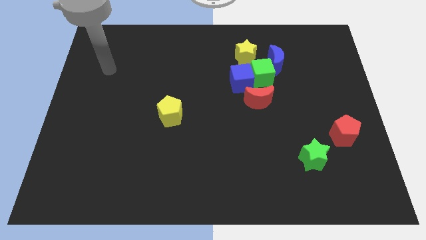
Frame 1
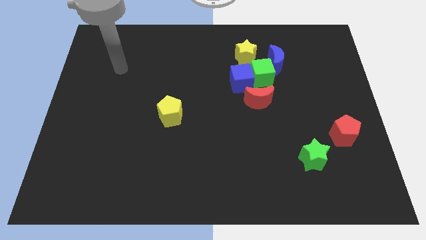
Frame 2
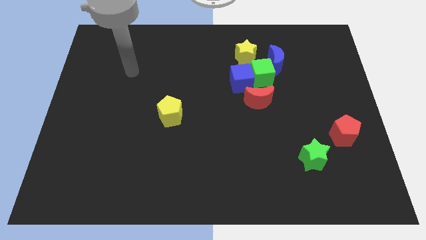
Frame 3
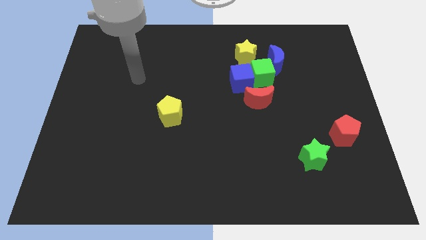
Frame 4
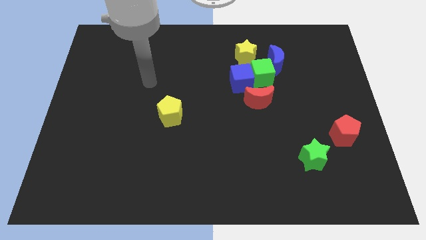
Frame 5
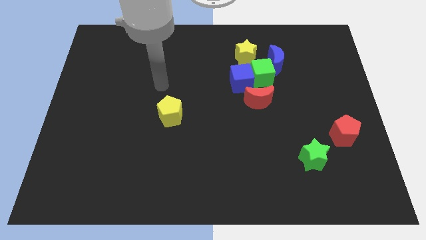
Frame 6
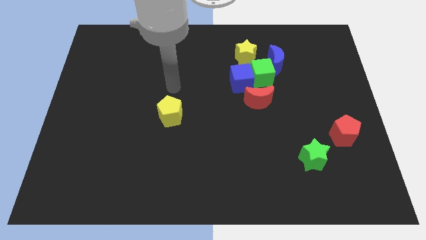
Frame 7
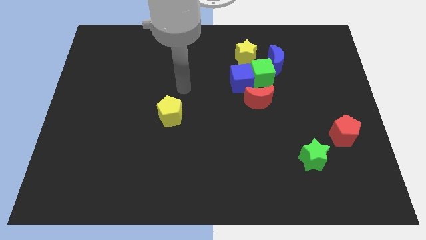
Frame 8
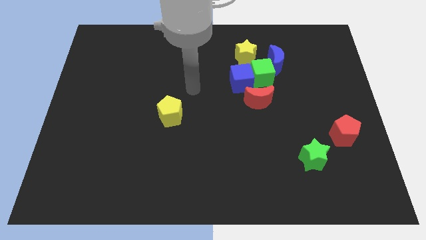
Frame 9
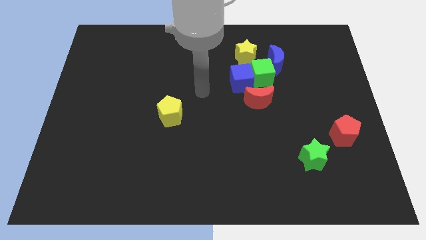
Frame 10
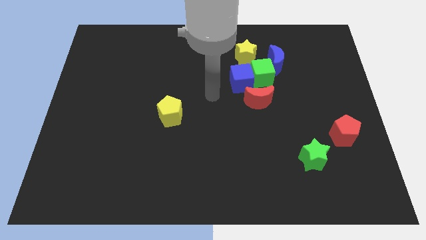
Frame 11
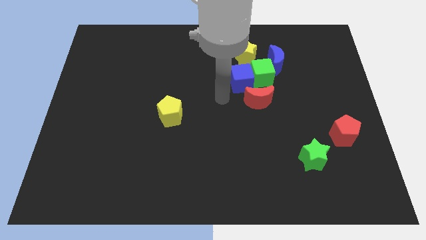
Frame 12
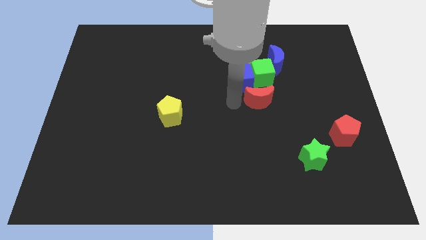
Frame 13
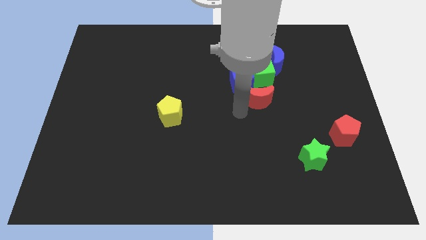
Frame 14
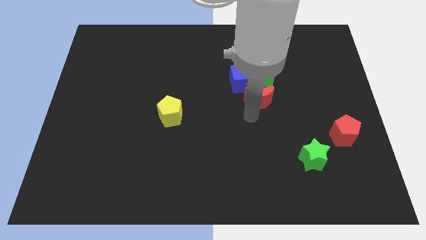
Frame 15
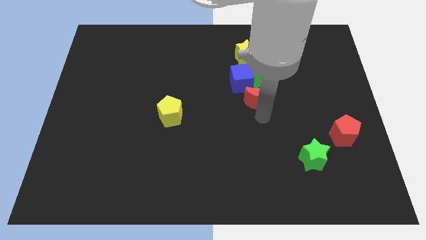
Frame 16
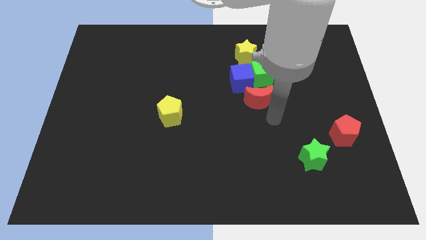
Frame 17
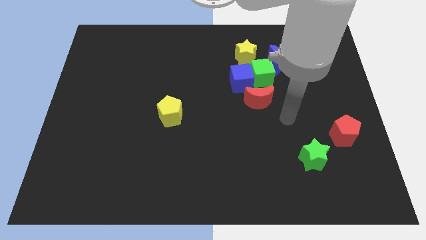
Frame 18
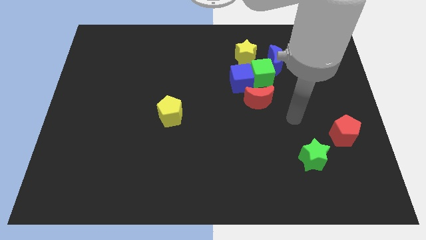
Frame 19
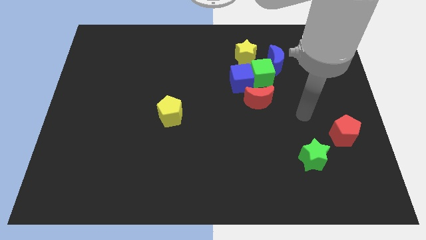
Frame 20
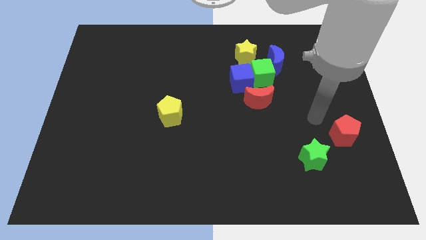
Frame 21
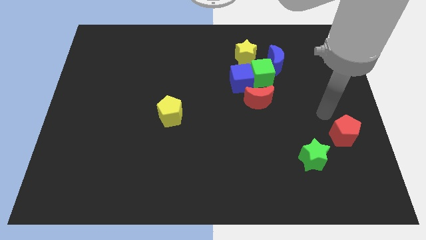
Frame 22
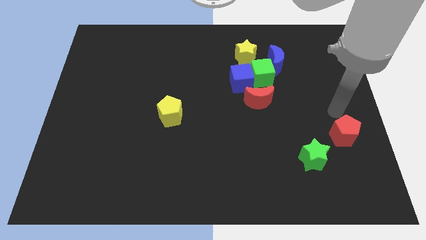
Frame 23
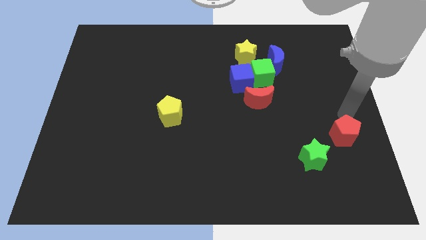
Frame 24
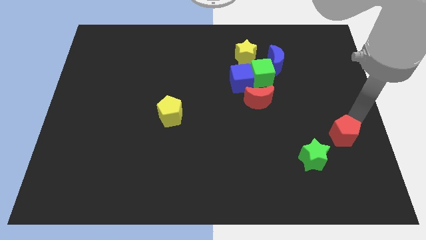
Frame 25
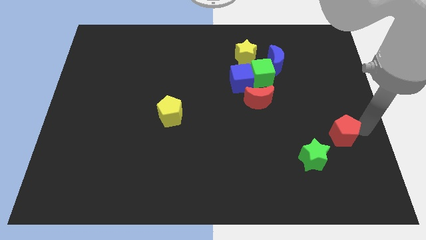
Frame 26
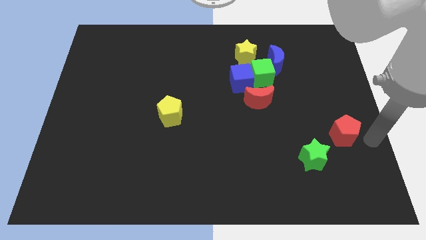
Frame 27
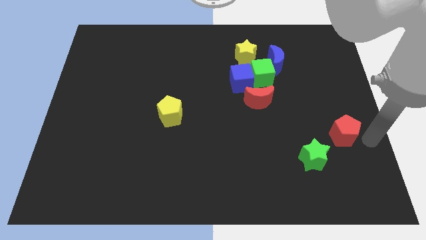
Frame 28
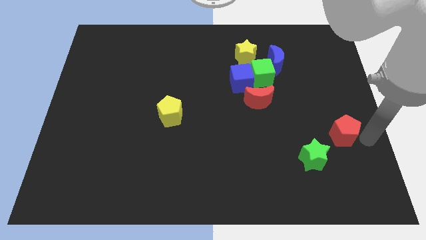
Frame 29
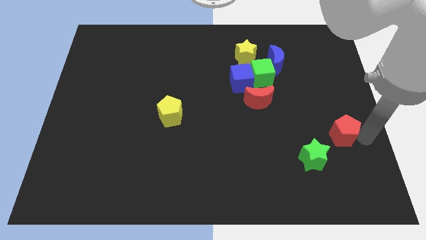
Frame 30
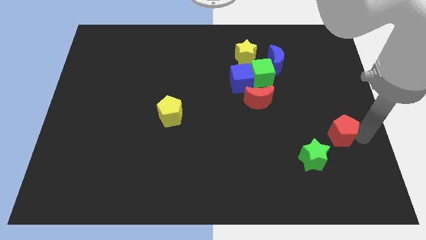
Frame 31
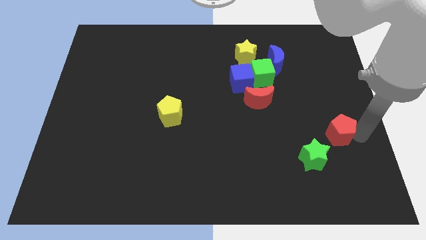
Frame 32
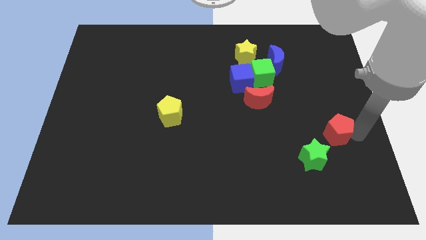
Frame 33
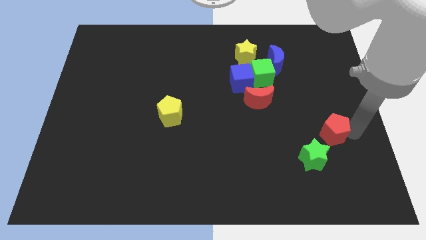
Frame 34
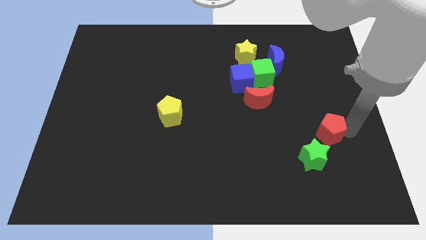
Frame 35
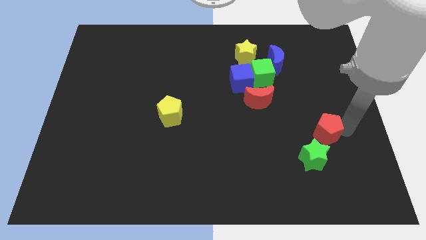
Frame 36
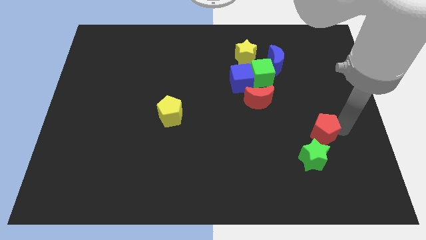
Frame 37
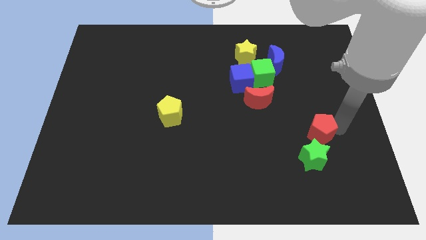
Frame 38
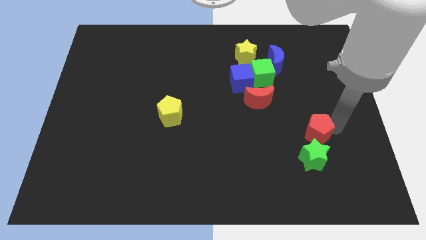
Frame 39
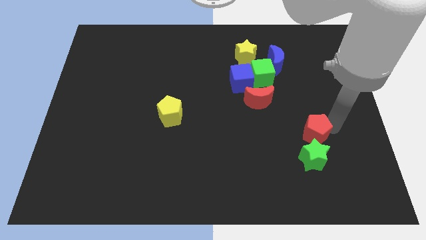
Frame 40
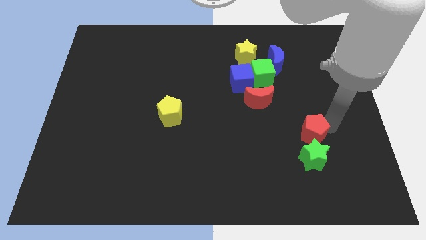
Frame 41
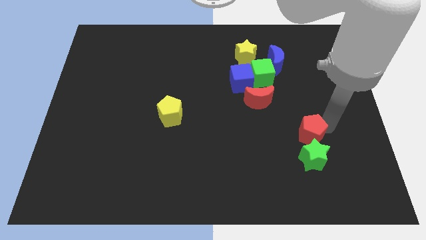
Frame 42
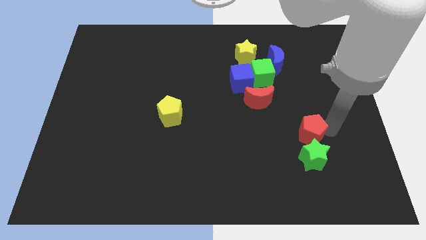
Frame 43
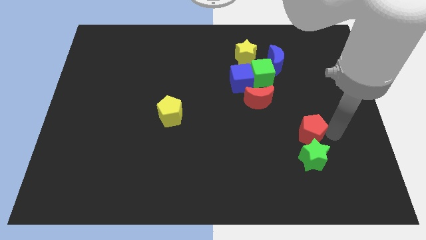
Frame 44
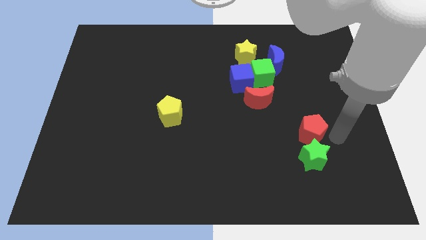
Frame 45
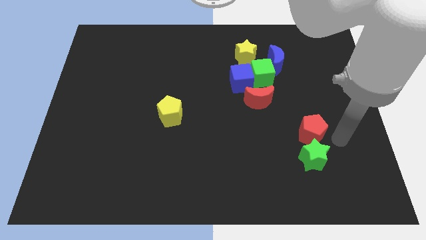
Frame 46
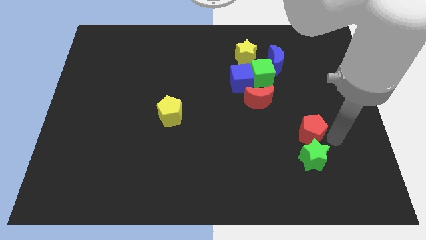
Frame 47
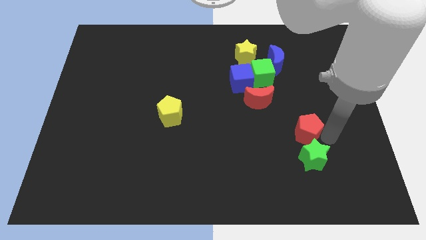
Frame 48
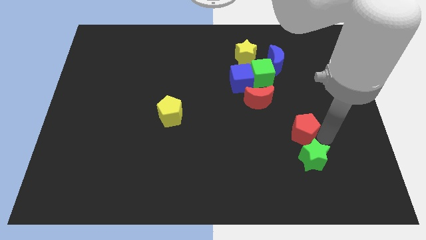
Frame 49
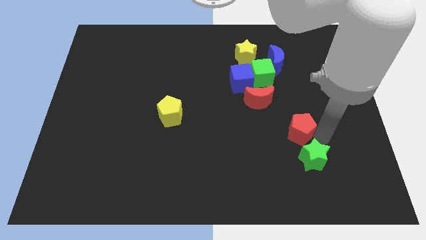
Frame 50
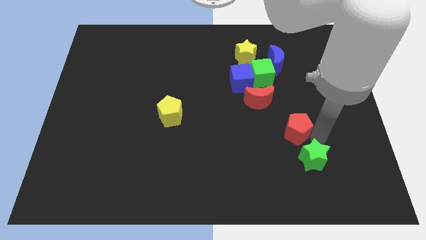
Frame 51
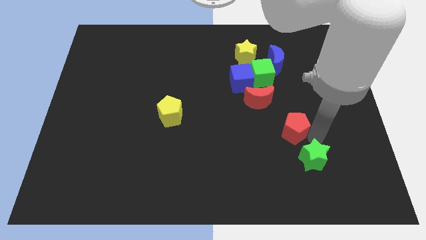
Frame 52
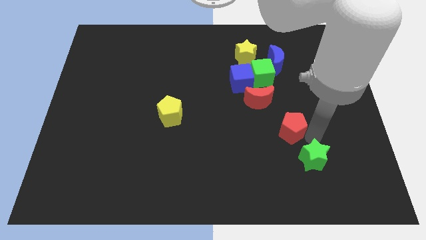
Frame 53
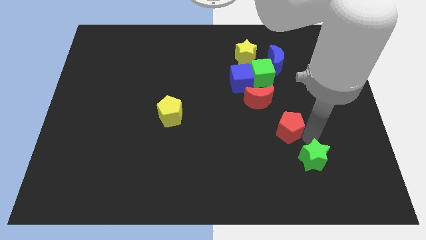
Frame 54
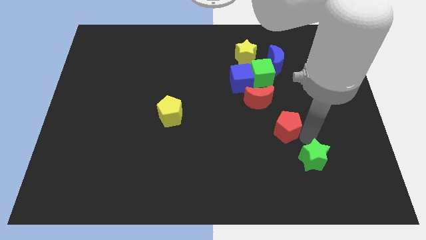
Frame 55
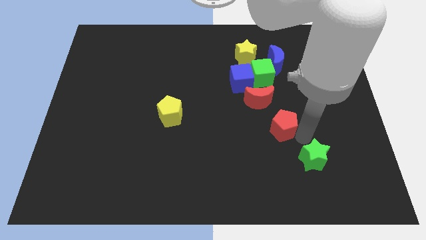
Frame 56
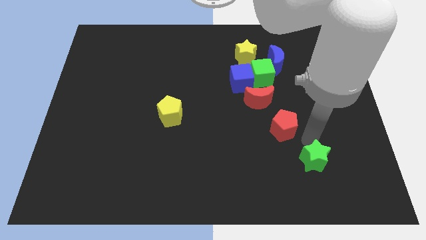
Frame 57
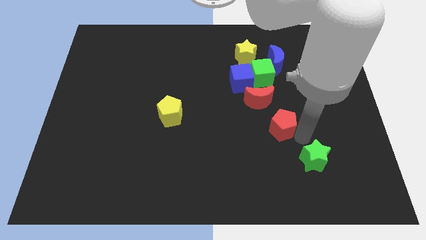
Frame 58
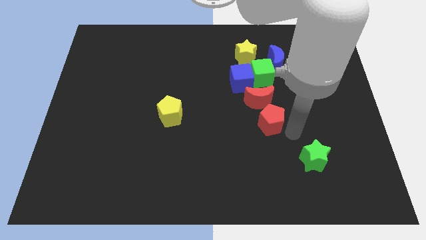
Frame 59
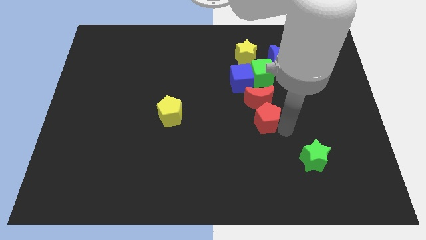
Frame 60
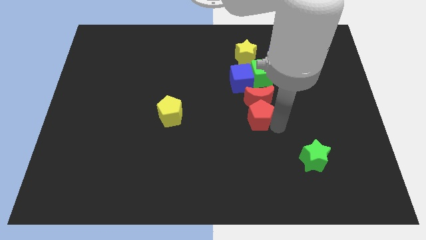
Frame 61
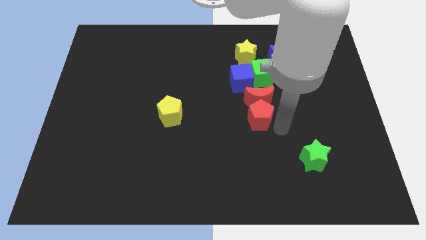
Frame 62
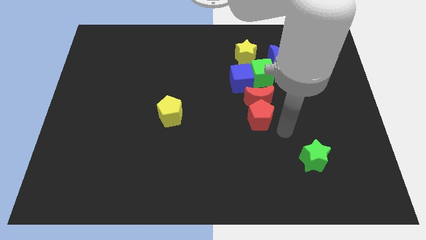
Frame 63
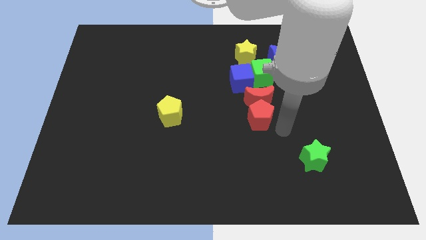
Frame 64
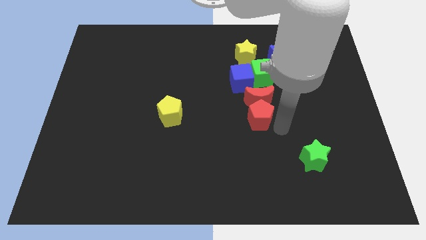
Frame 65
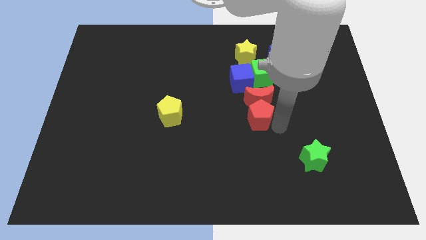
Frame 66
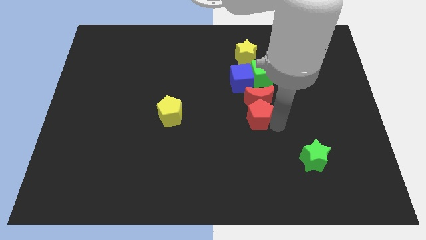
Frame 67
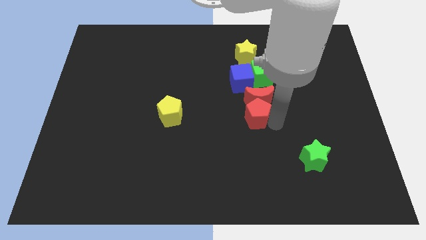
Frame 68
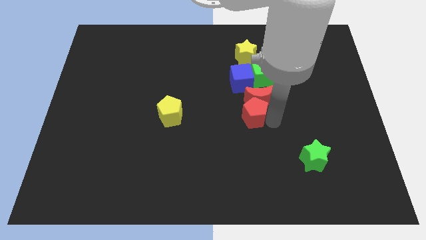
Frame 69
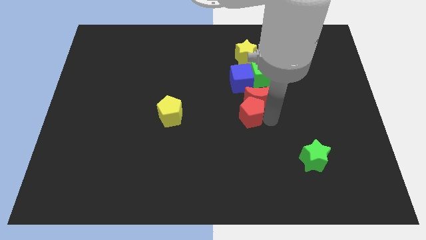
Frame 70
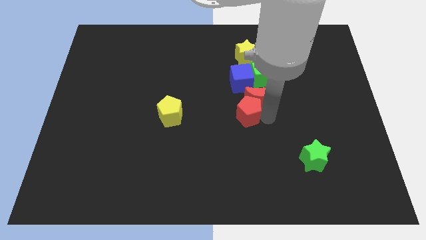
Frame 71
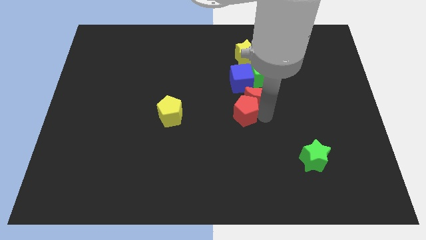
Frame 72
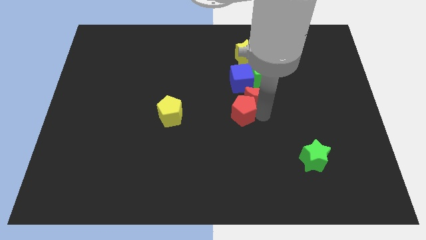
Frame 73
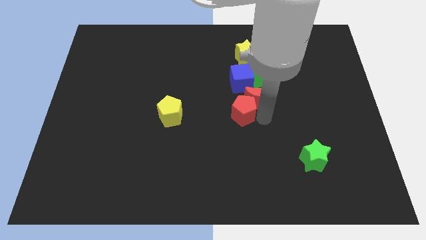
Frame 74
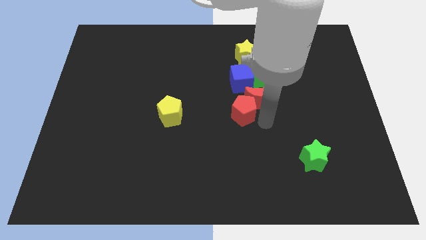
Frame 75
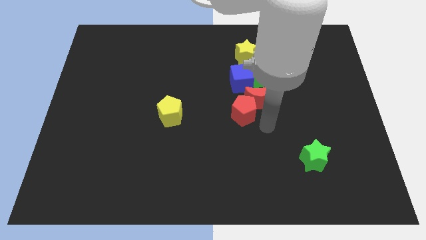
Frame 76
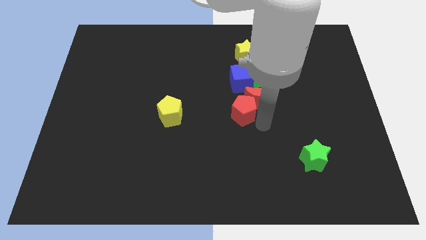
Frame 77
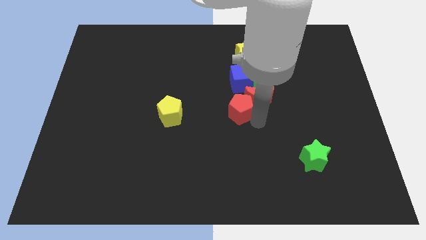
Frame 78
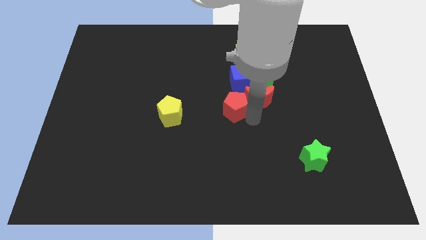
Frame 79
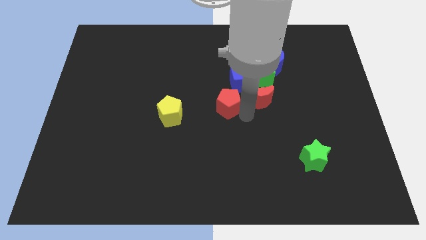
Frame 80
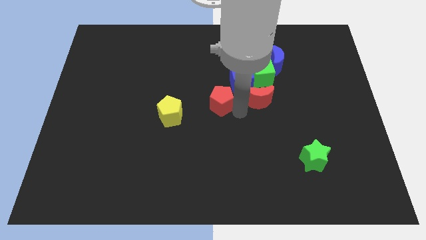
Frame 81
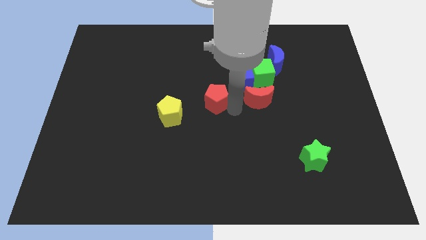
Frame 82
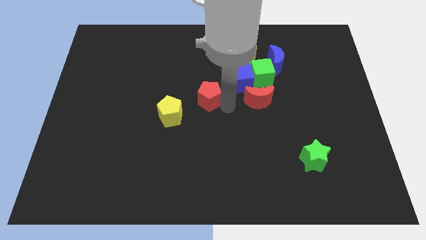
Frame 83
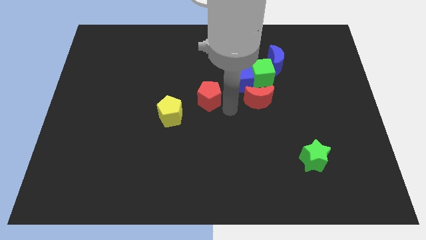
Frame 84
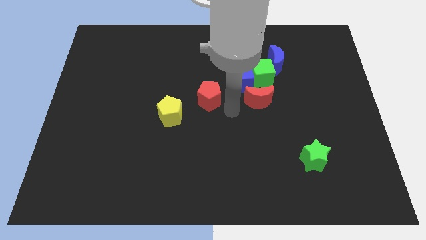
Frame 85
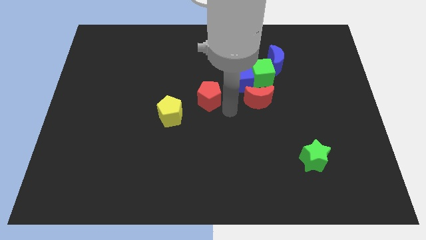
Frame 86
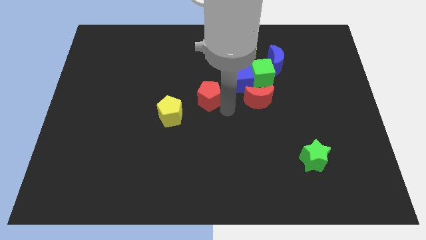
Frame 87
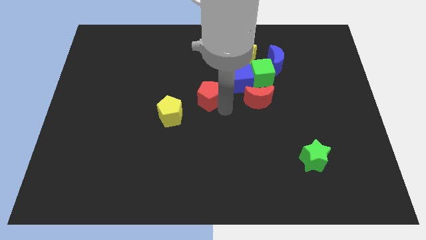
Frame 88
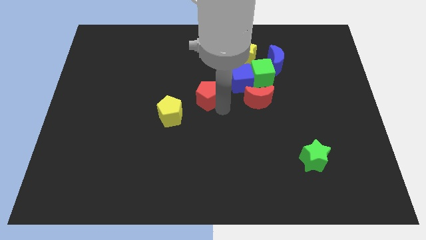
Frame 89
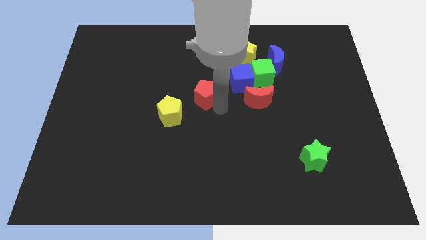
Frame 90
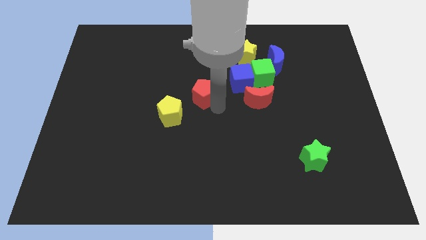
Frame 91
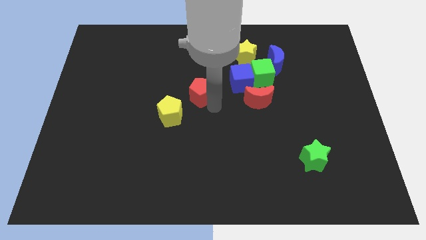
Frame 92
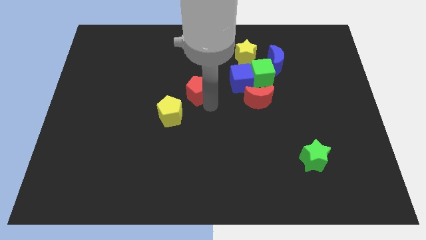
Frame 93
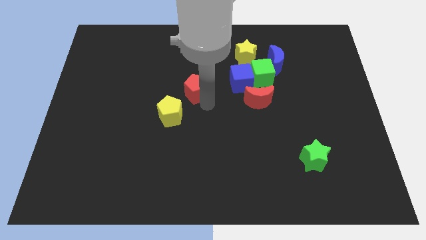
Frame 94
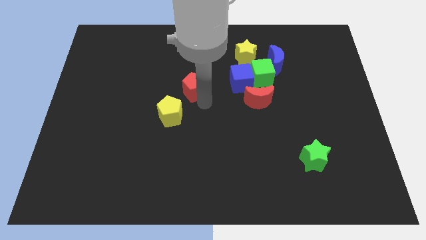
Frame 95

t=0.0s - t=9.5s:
push the red pentagon above the yellow pentagon
